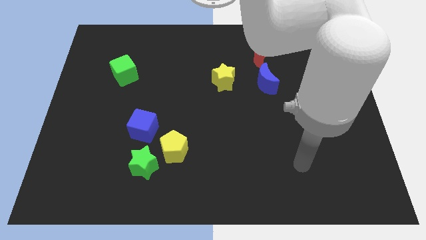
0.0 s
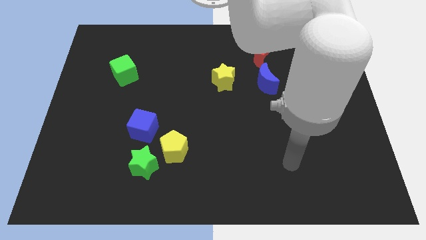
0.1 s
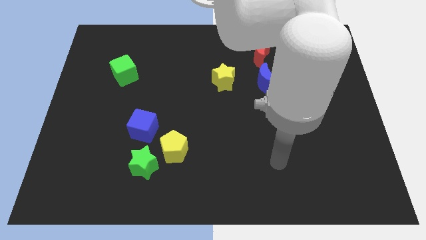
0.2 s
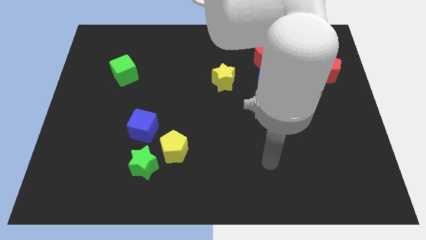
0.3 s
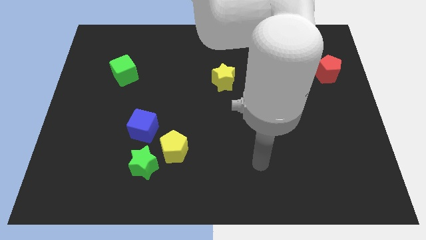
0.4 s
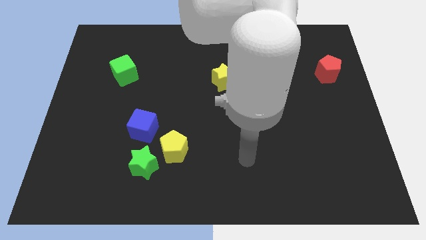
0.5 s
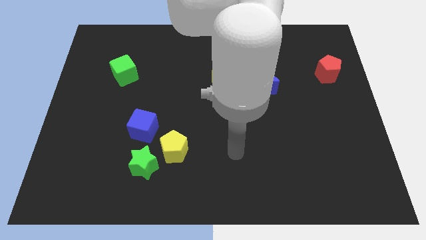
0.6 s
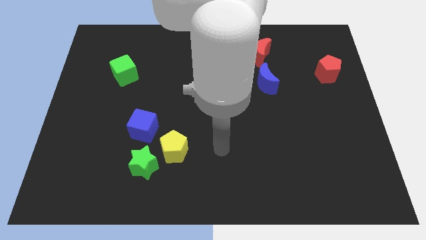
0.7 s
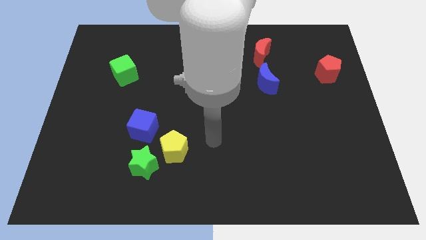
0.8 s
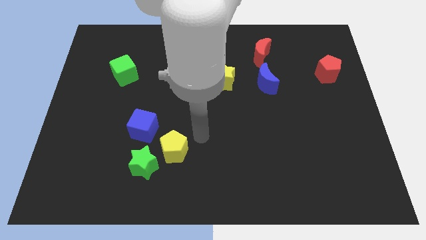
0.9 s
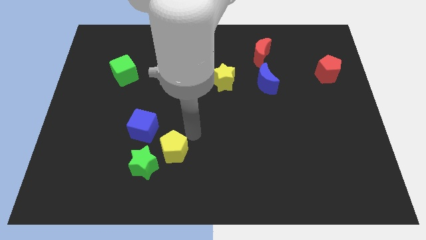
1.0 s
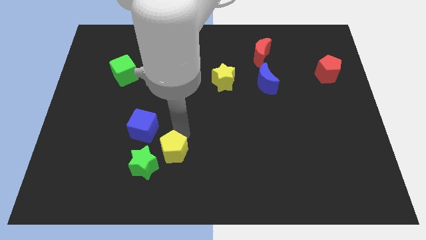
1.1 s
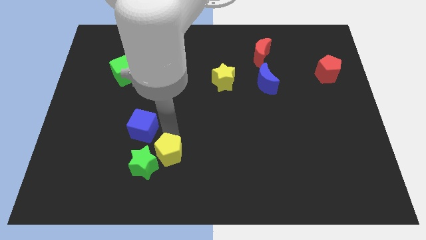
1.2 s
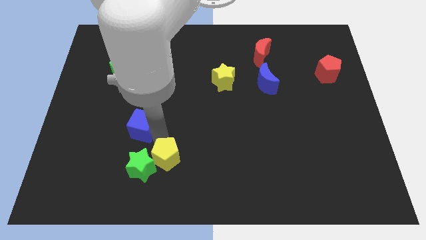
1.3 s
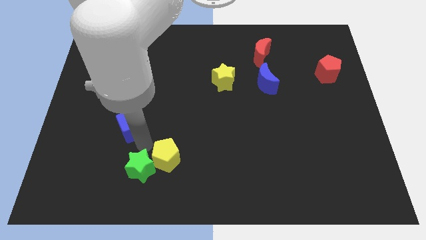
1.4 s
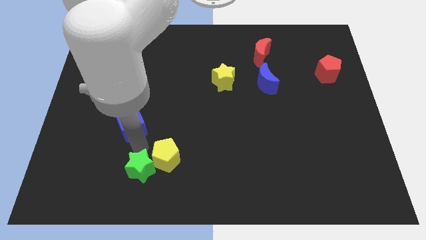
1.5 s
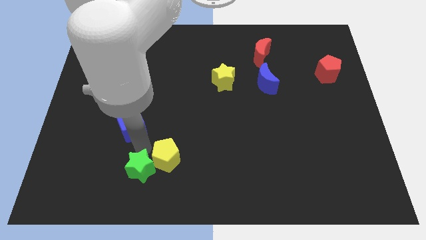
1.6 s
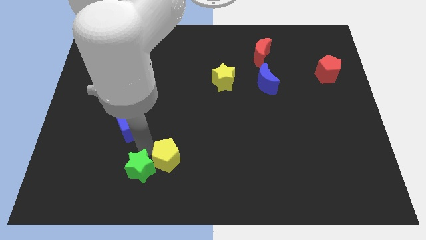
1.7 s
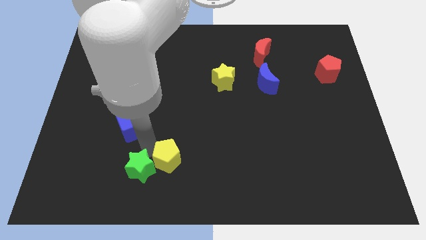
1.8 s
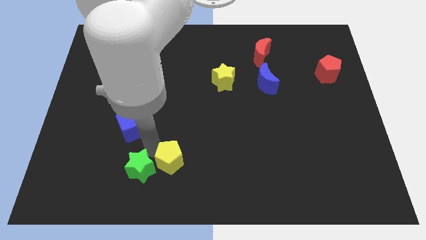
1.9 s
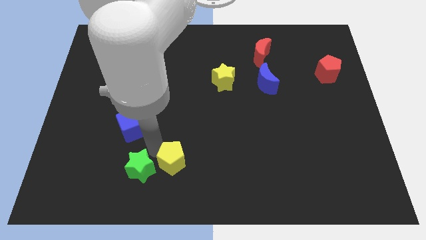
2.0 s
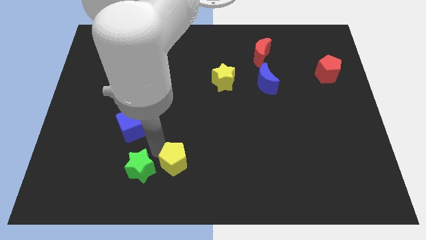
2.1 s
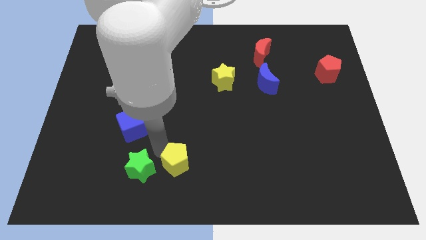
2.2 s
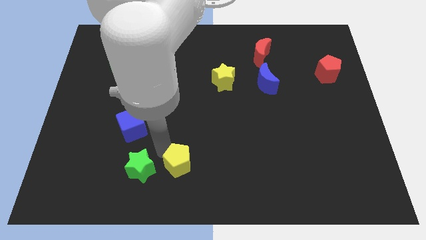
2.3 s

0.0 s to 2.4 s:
separate the yellow pentagon from the green star and blue cube

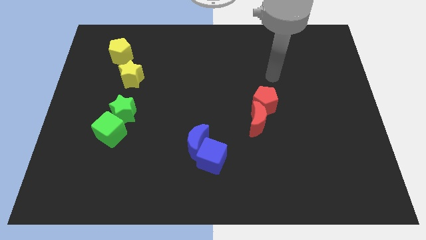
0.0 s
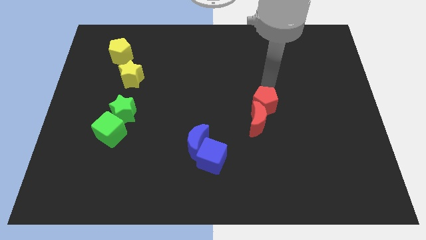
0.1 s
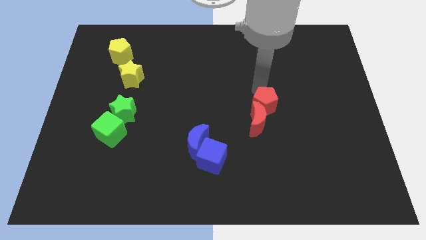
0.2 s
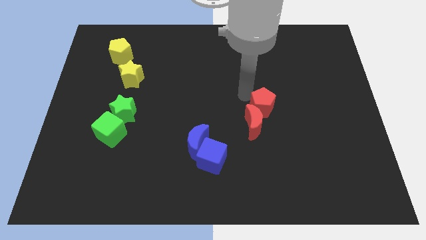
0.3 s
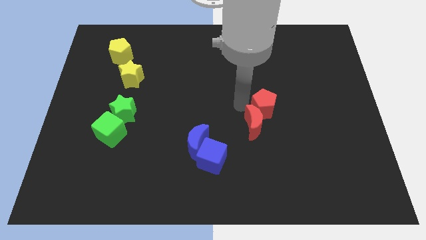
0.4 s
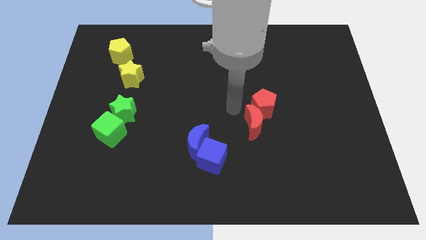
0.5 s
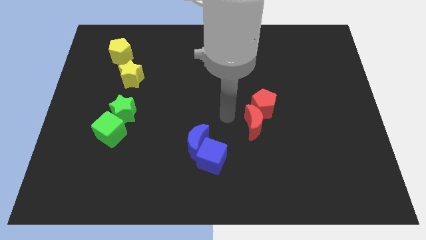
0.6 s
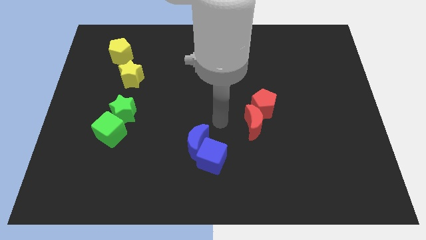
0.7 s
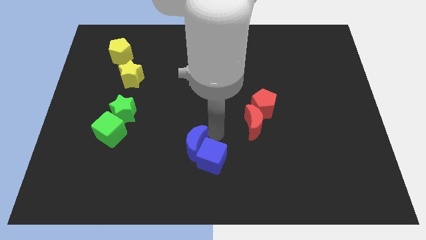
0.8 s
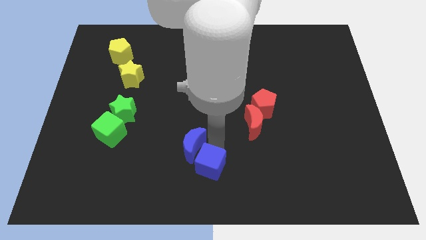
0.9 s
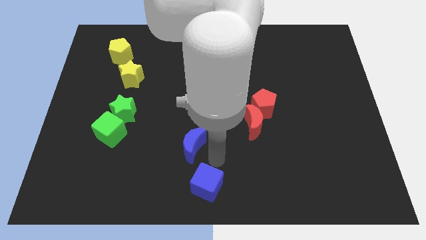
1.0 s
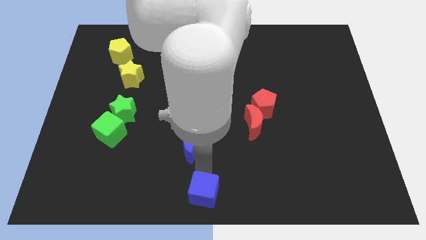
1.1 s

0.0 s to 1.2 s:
move the blue moon away from the blue cube

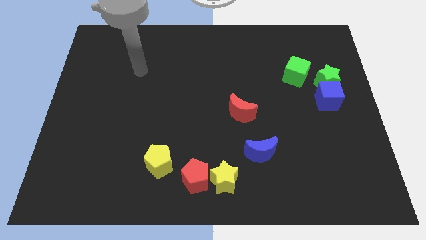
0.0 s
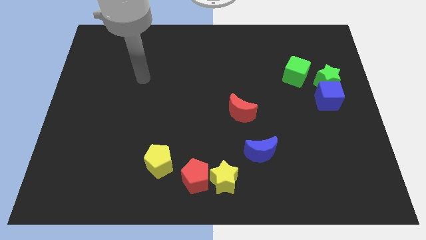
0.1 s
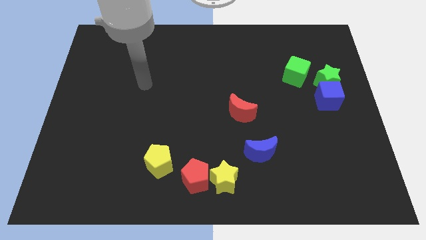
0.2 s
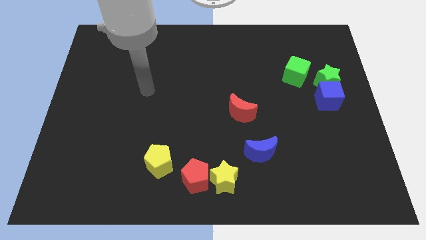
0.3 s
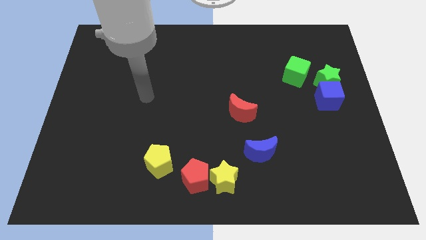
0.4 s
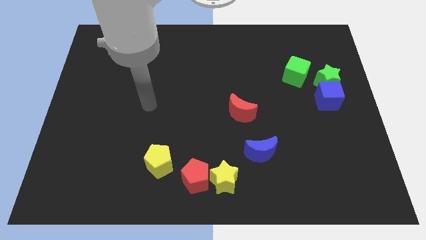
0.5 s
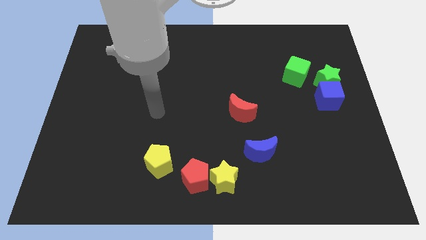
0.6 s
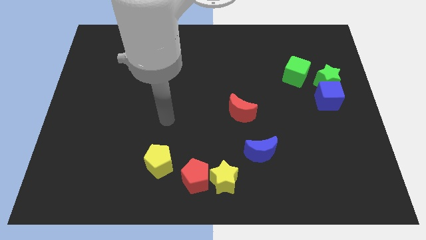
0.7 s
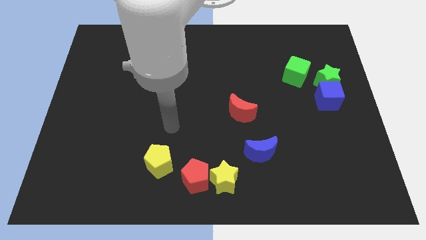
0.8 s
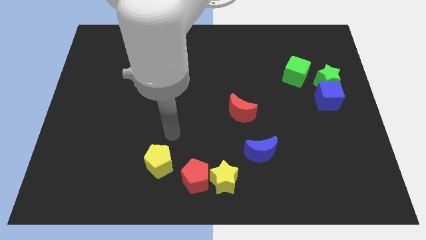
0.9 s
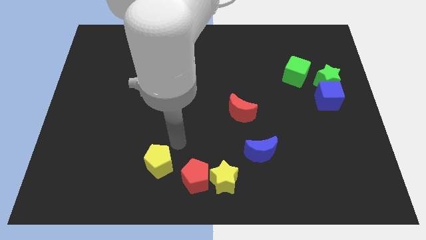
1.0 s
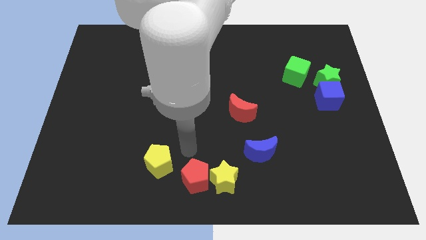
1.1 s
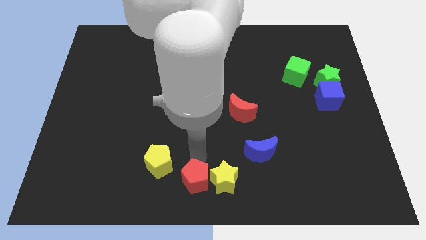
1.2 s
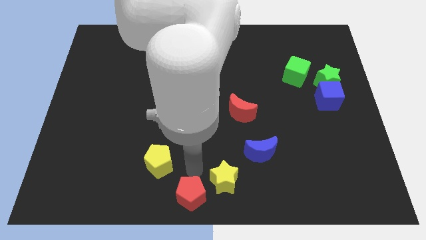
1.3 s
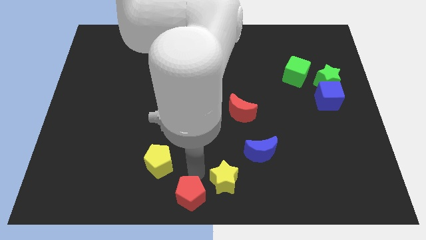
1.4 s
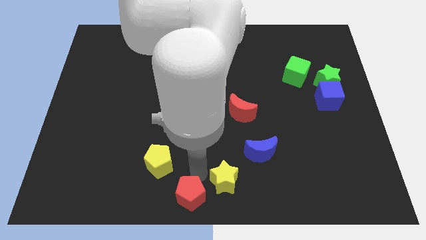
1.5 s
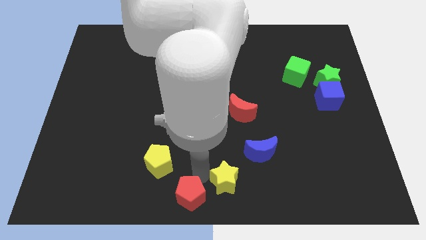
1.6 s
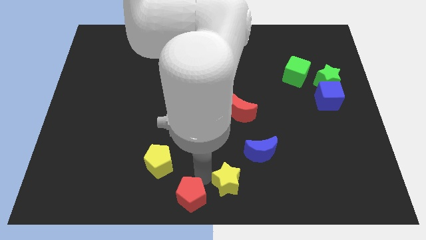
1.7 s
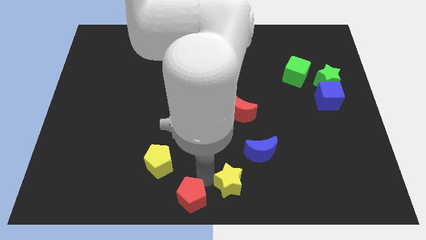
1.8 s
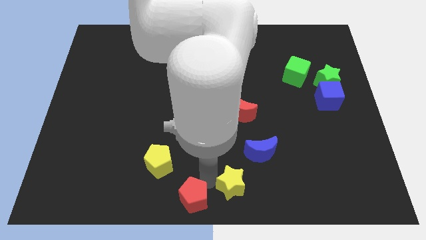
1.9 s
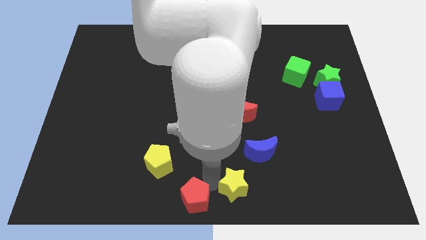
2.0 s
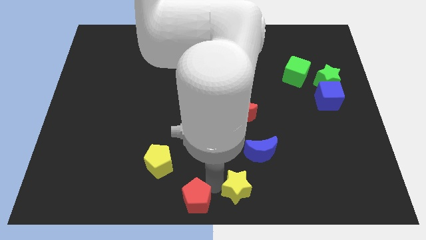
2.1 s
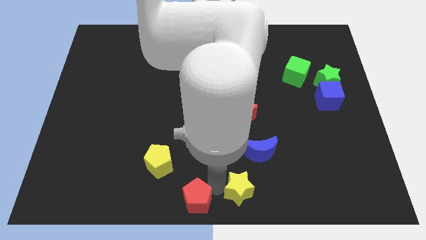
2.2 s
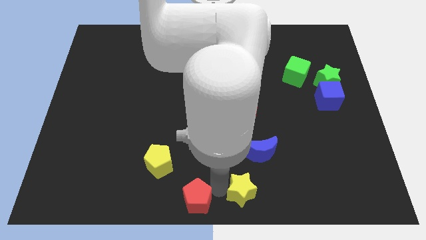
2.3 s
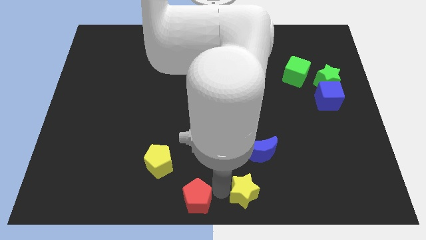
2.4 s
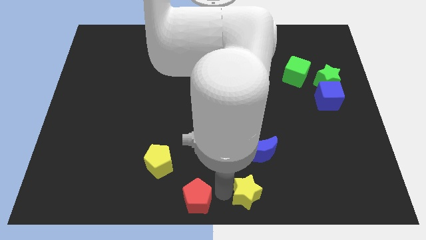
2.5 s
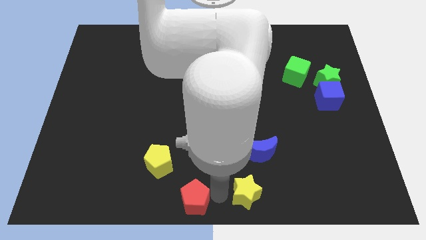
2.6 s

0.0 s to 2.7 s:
separate the yellow star from the red pentagon

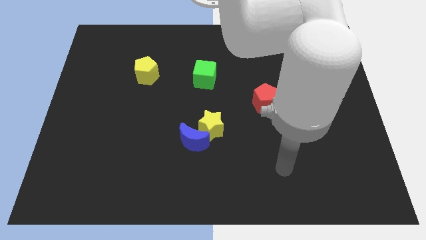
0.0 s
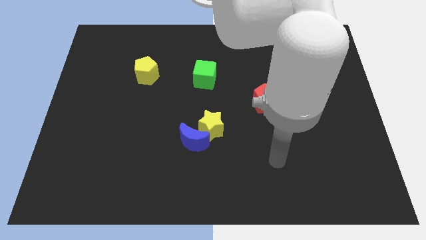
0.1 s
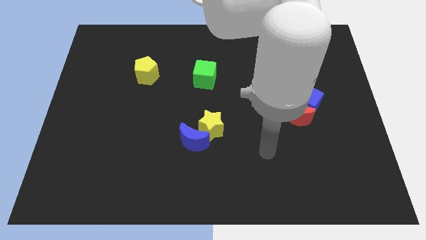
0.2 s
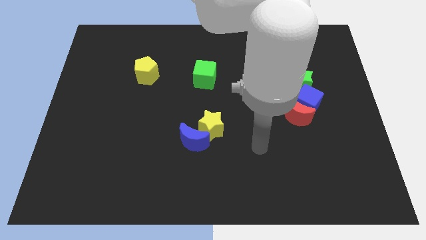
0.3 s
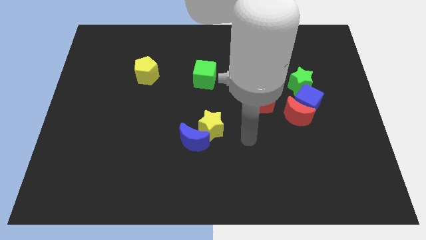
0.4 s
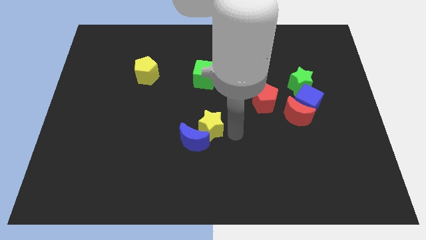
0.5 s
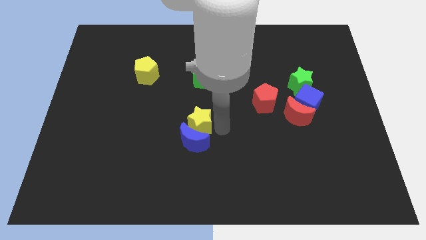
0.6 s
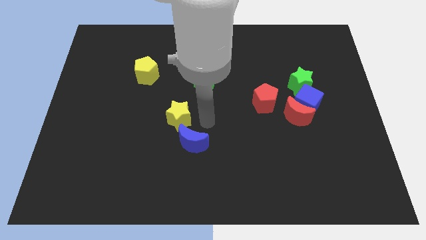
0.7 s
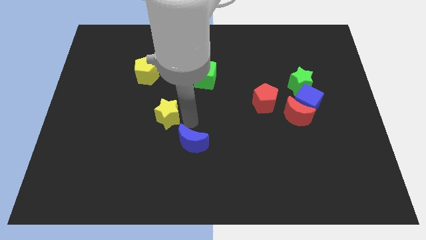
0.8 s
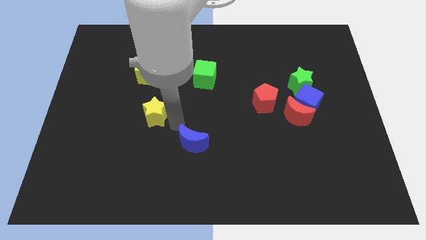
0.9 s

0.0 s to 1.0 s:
pull the blue moon apart from the yellow star

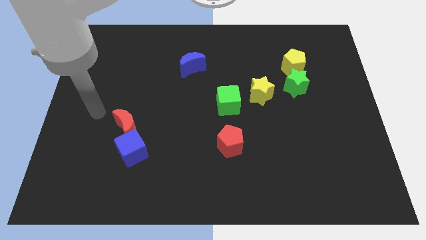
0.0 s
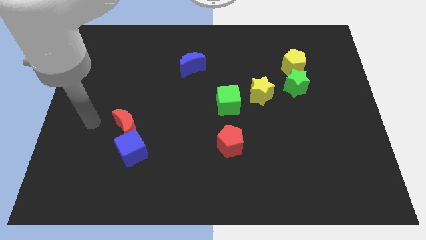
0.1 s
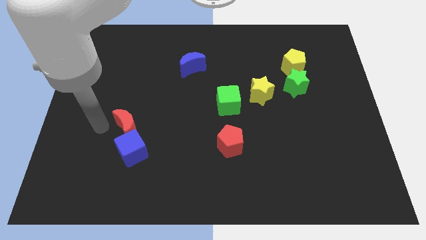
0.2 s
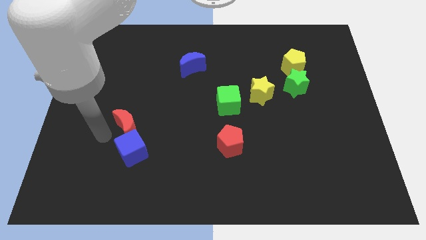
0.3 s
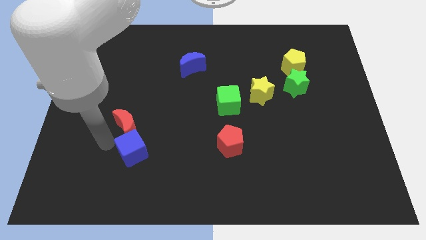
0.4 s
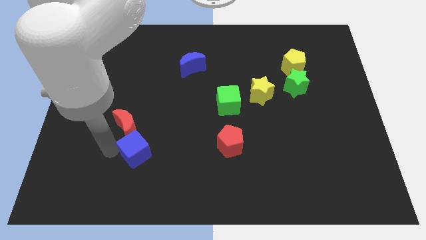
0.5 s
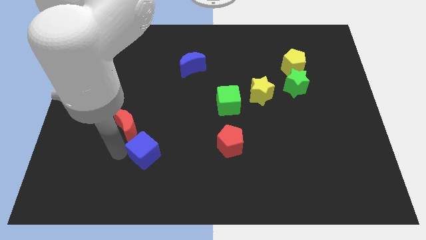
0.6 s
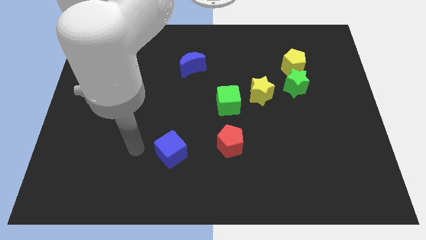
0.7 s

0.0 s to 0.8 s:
separate the red moon from the blue cube

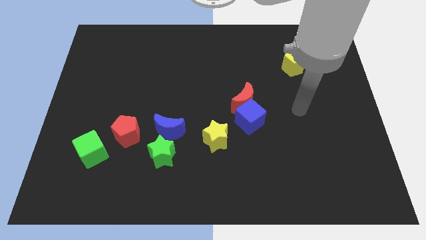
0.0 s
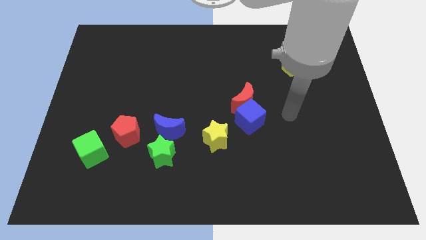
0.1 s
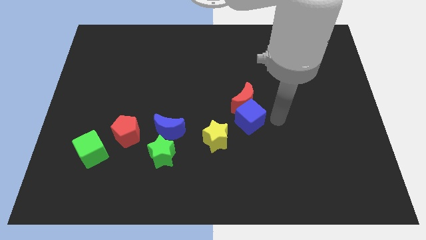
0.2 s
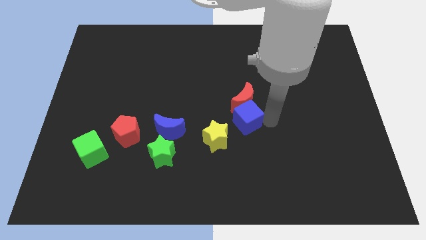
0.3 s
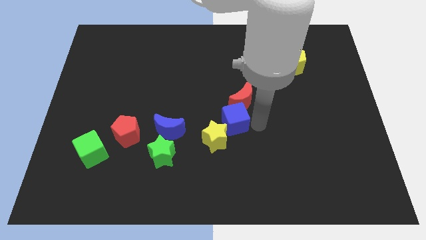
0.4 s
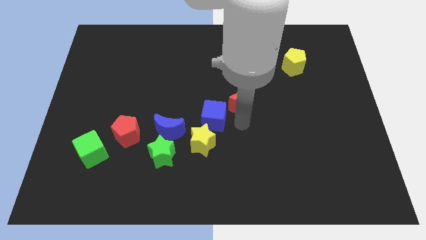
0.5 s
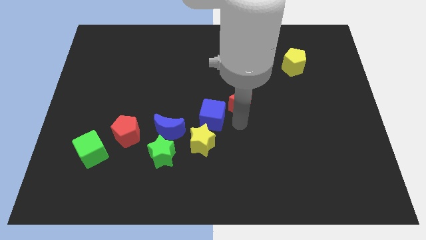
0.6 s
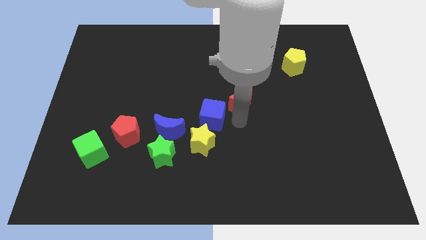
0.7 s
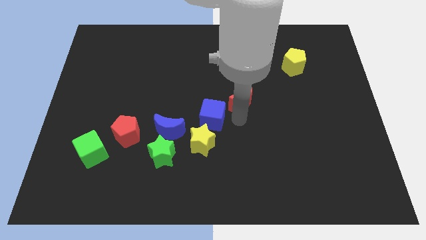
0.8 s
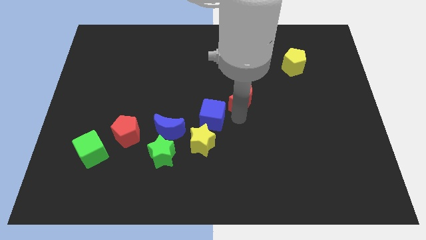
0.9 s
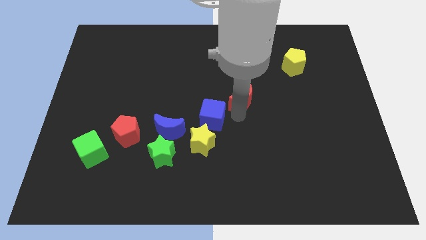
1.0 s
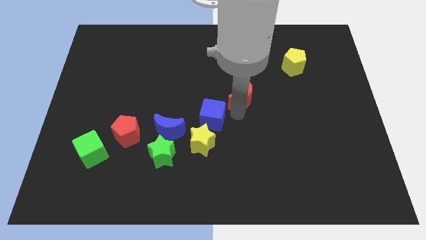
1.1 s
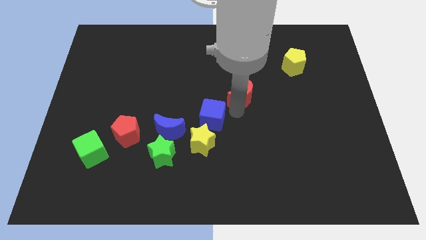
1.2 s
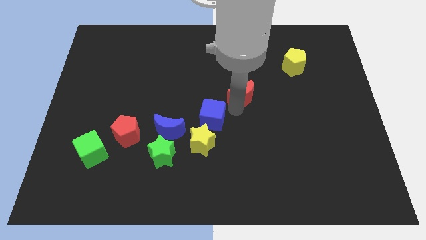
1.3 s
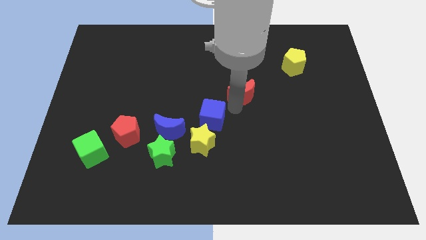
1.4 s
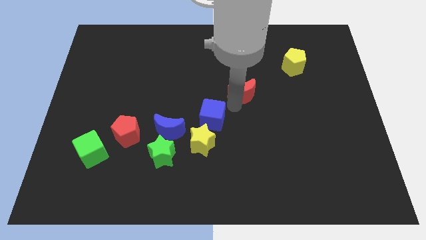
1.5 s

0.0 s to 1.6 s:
pull the red moon apart from the blue cube
